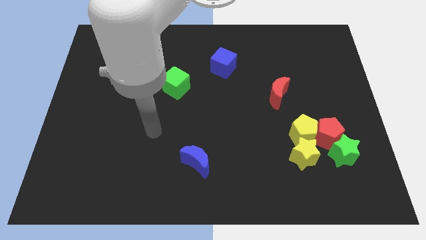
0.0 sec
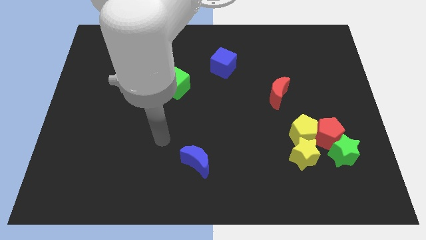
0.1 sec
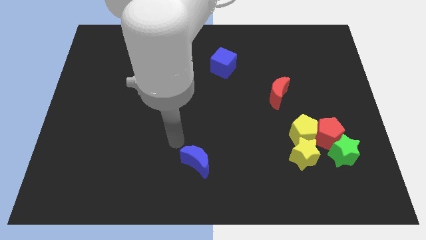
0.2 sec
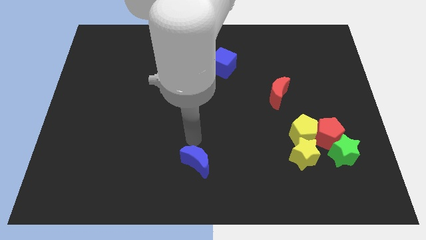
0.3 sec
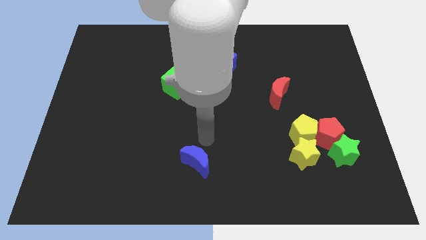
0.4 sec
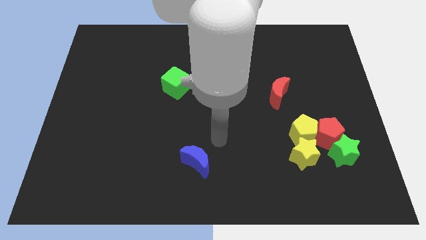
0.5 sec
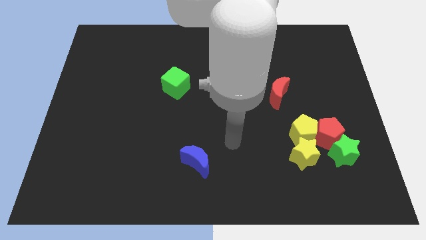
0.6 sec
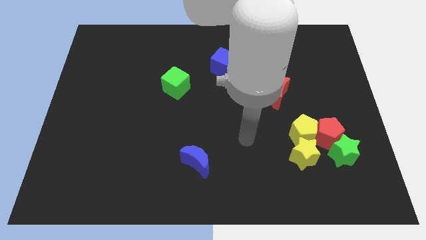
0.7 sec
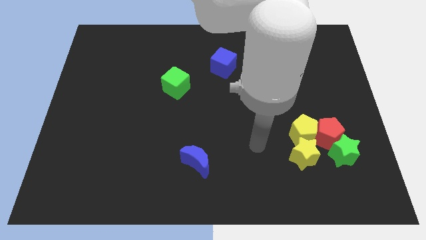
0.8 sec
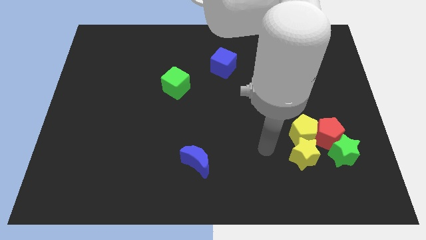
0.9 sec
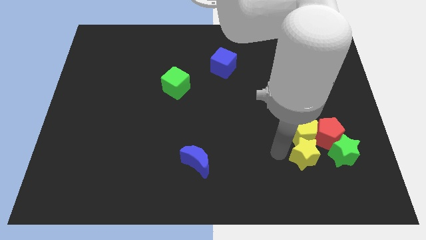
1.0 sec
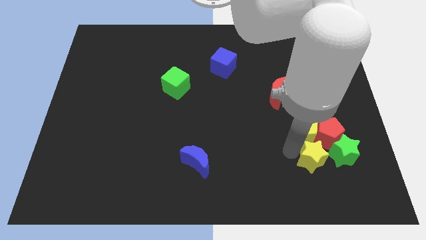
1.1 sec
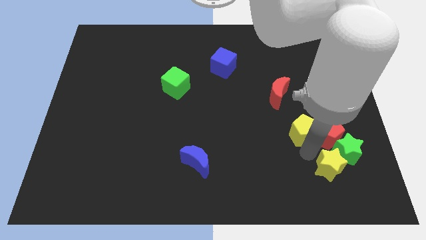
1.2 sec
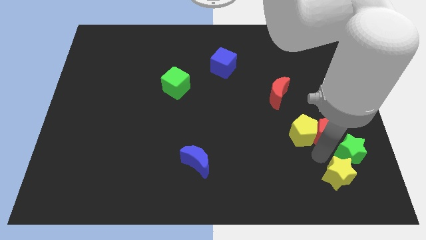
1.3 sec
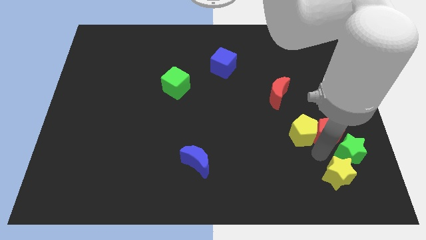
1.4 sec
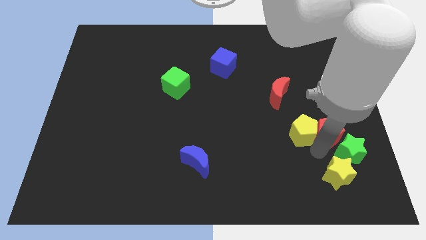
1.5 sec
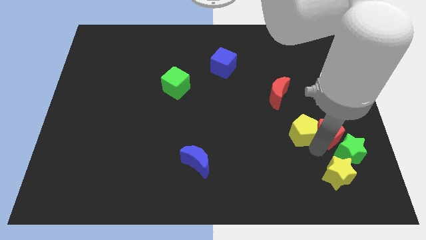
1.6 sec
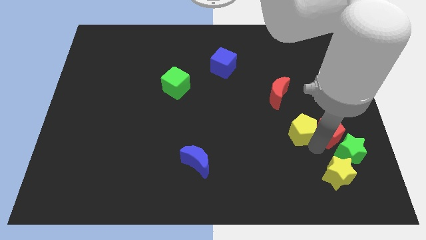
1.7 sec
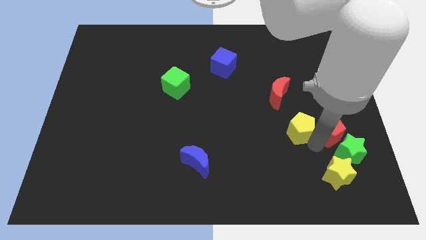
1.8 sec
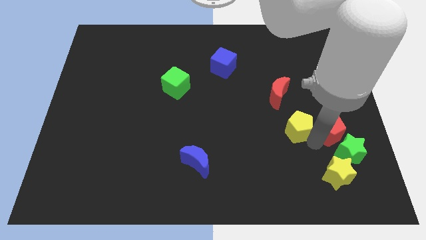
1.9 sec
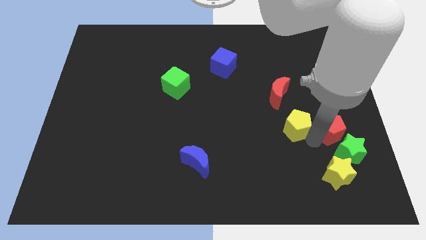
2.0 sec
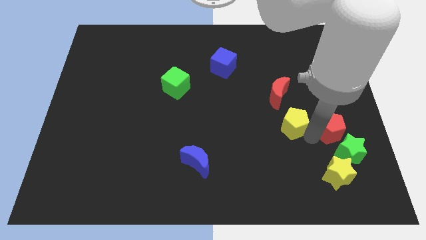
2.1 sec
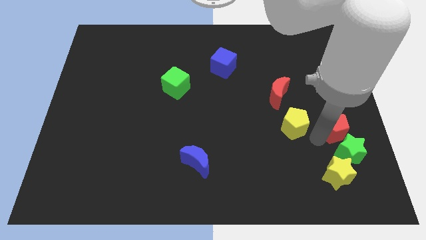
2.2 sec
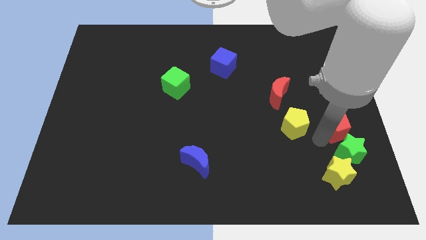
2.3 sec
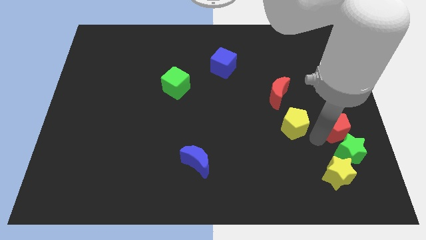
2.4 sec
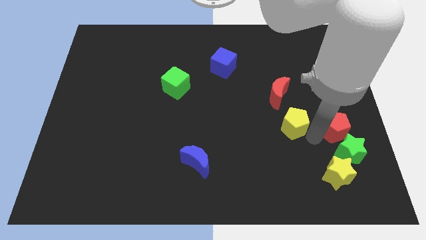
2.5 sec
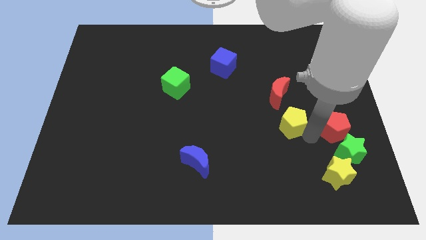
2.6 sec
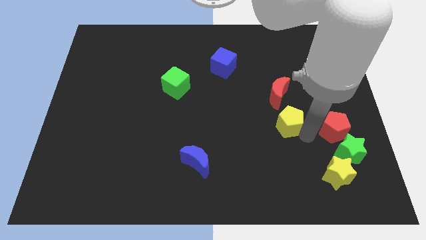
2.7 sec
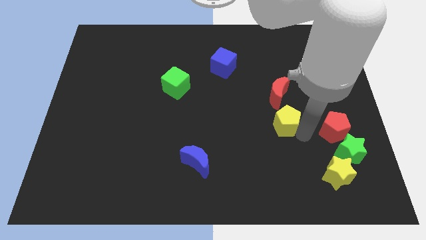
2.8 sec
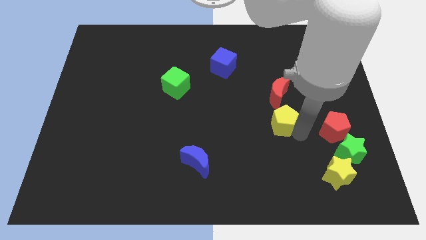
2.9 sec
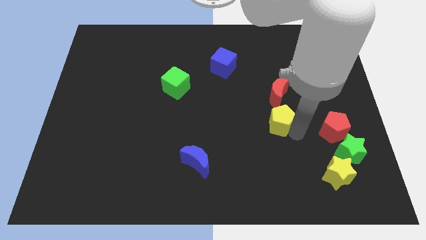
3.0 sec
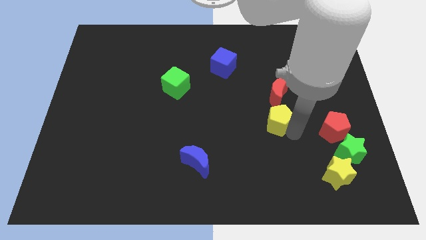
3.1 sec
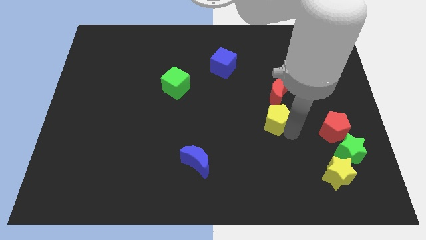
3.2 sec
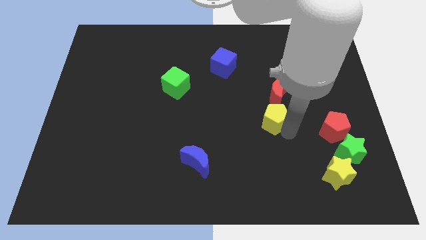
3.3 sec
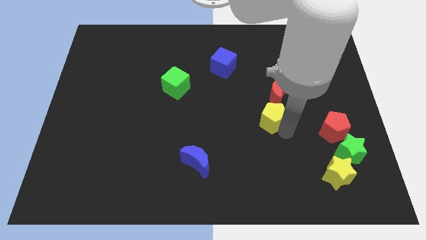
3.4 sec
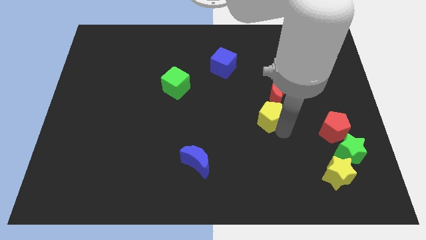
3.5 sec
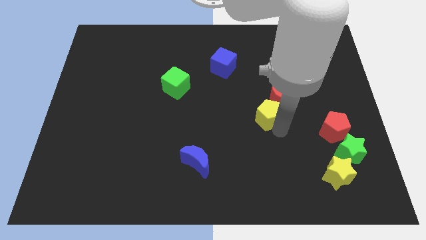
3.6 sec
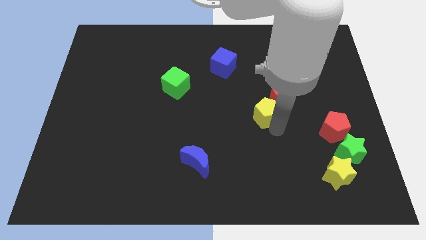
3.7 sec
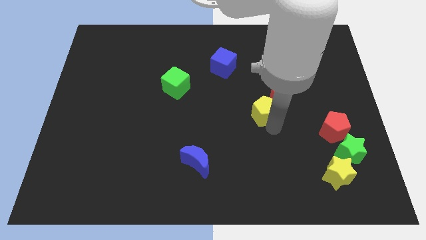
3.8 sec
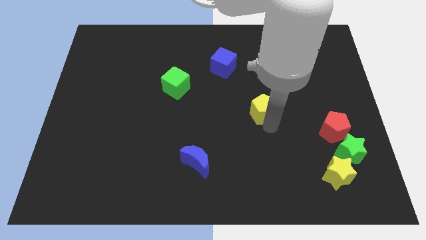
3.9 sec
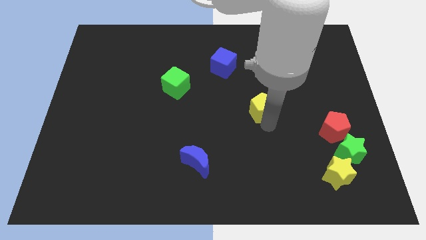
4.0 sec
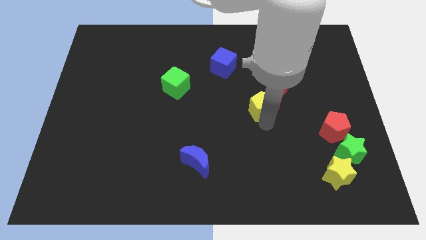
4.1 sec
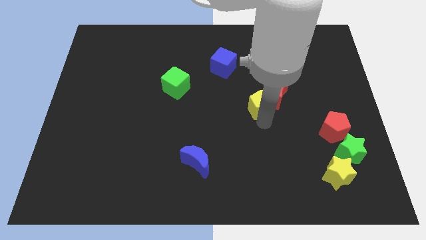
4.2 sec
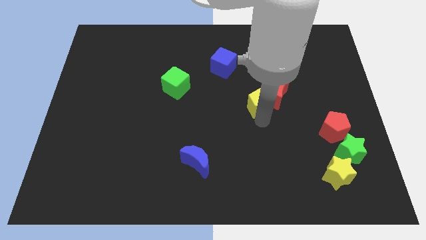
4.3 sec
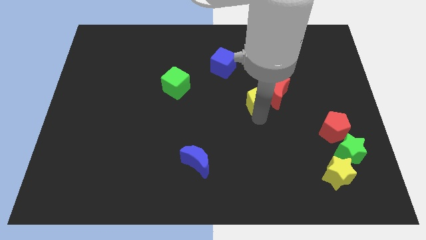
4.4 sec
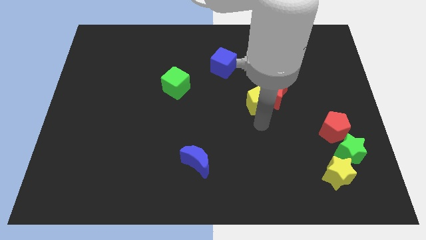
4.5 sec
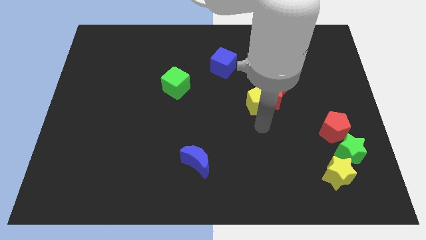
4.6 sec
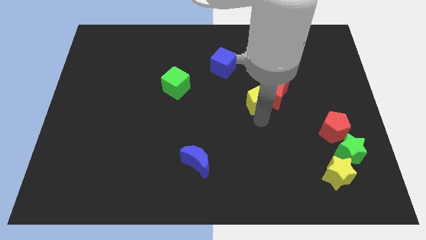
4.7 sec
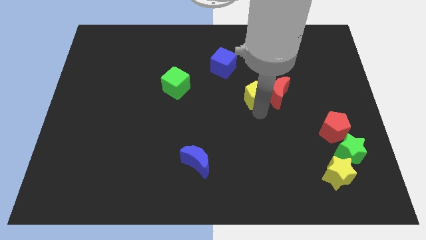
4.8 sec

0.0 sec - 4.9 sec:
slide the yellow pentagon to the top left of the red moon

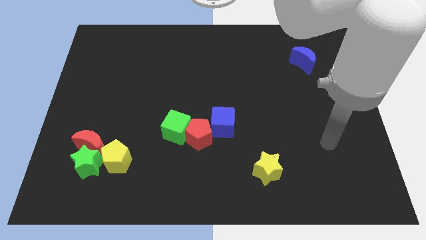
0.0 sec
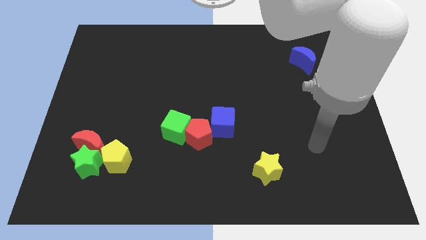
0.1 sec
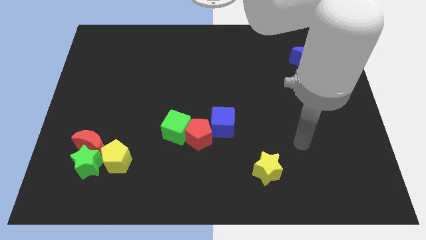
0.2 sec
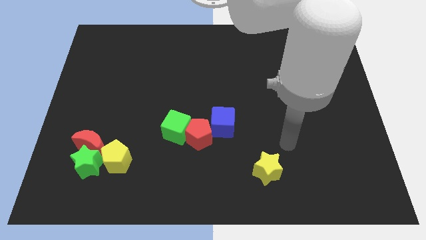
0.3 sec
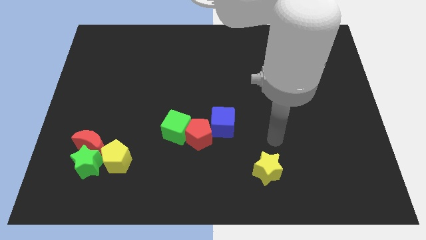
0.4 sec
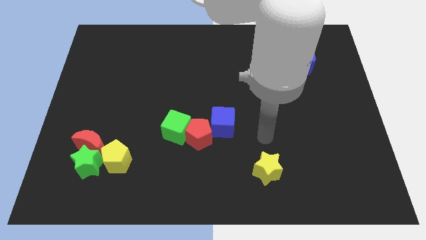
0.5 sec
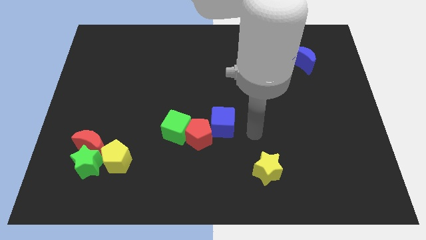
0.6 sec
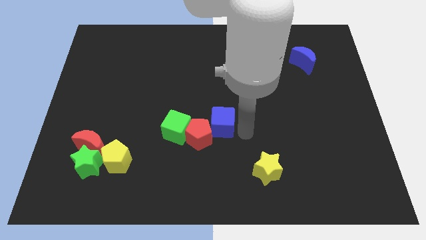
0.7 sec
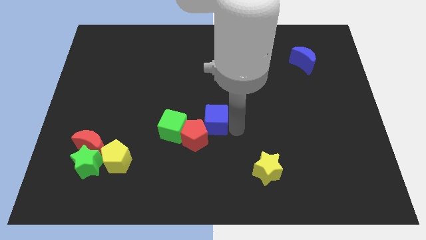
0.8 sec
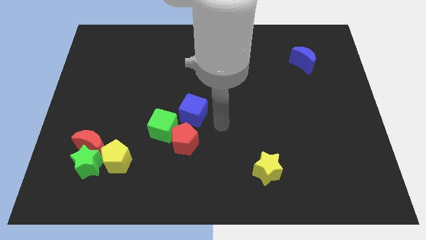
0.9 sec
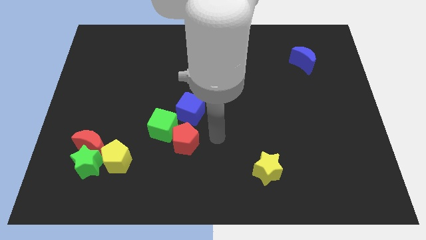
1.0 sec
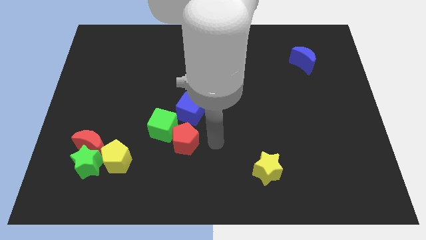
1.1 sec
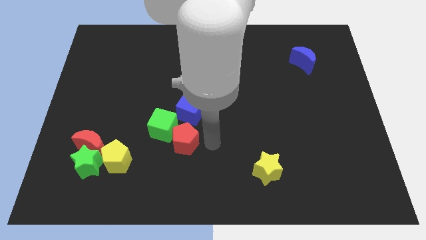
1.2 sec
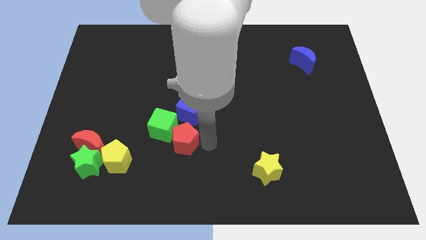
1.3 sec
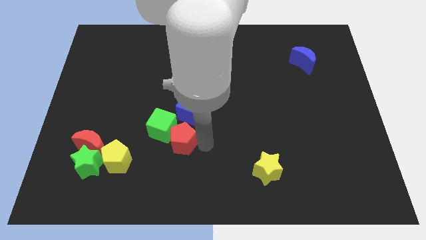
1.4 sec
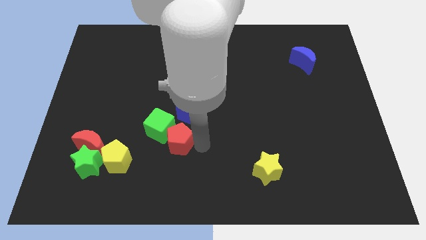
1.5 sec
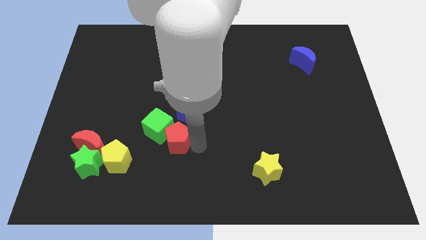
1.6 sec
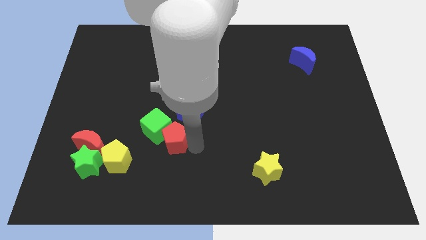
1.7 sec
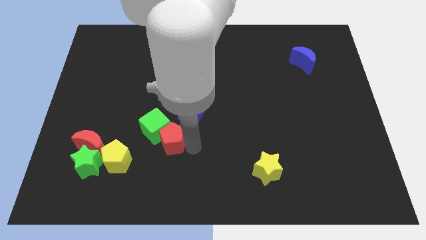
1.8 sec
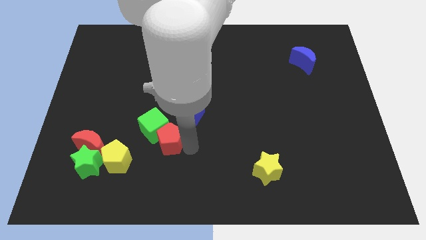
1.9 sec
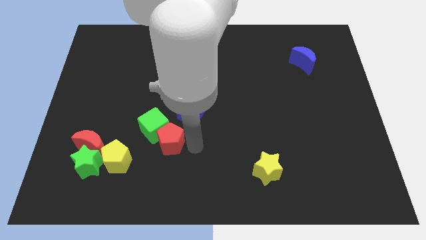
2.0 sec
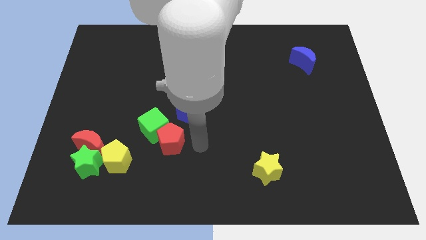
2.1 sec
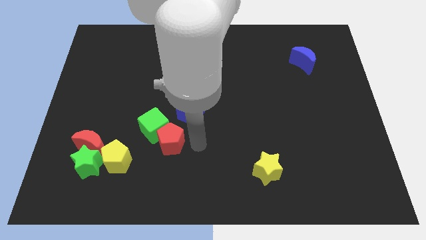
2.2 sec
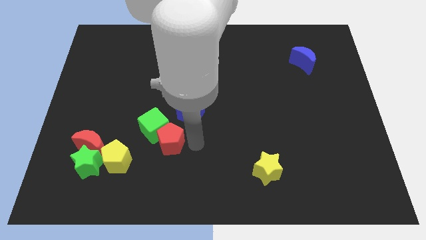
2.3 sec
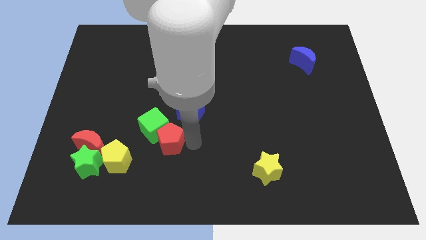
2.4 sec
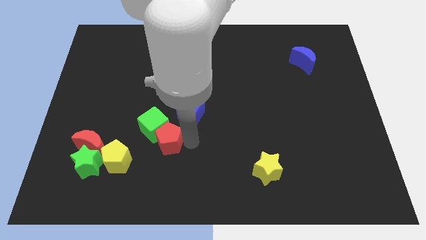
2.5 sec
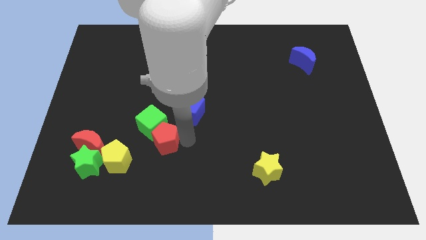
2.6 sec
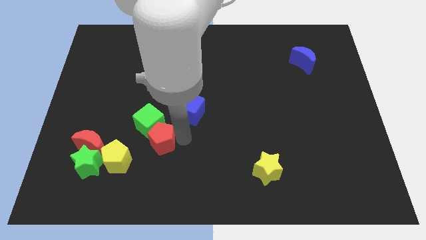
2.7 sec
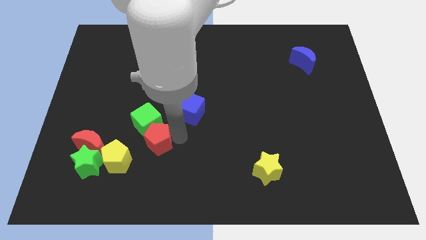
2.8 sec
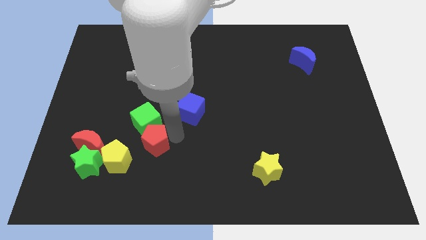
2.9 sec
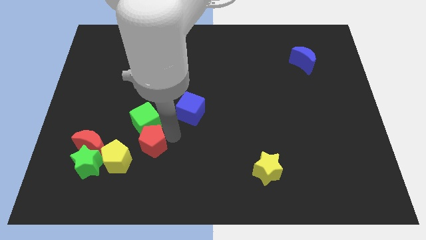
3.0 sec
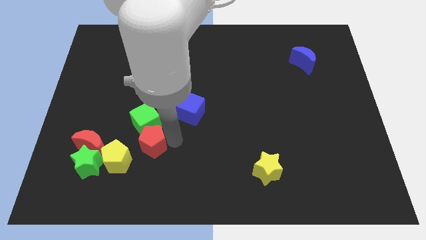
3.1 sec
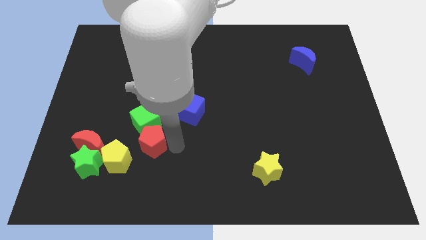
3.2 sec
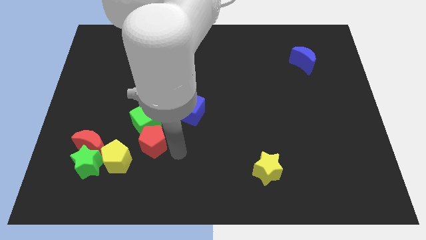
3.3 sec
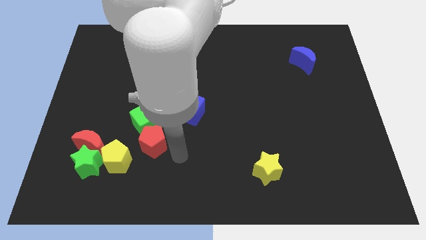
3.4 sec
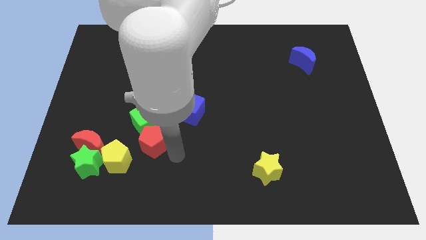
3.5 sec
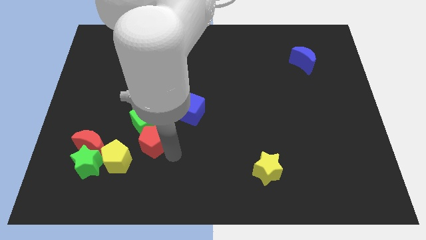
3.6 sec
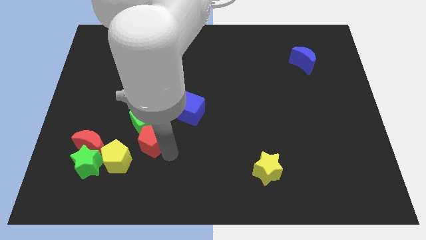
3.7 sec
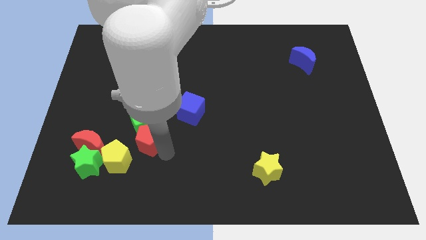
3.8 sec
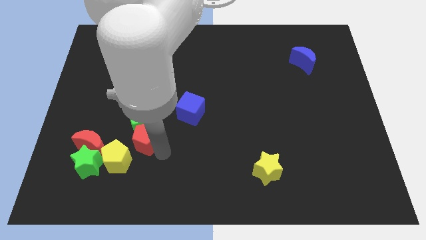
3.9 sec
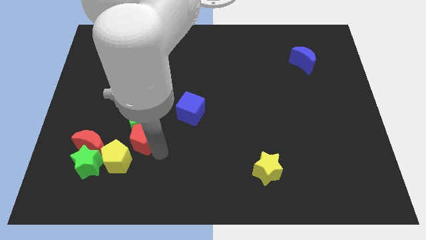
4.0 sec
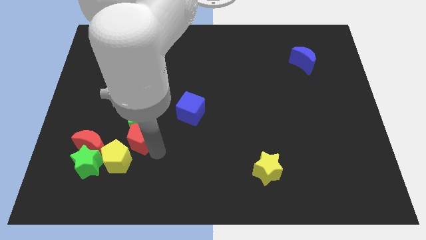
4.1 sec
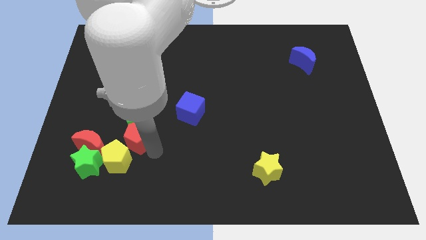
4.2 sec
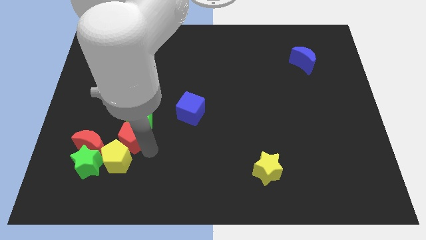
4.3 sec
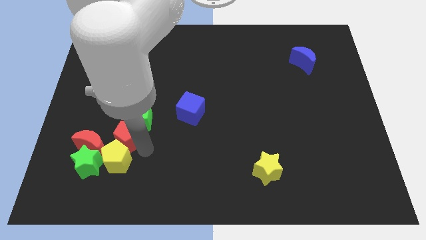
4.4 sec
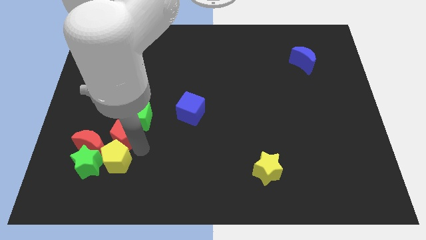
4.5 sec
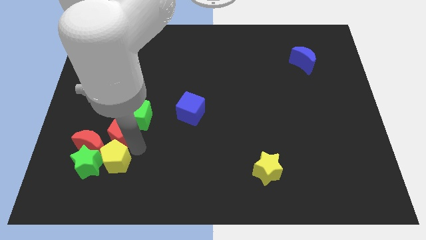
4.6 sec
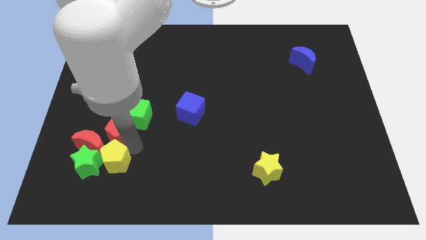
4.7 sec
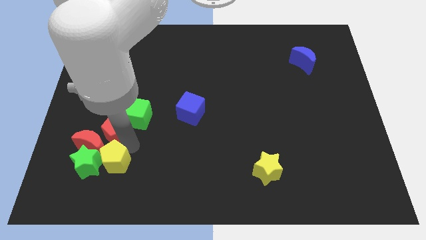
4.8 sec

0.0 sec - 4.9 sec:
move the red pentagon to the top of the green star
